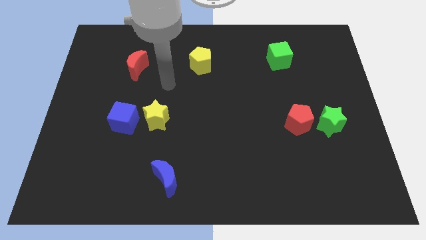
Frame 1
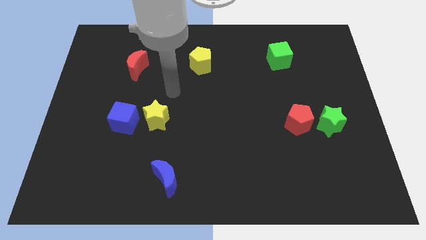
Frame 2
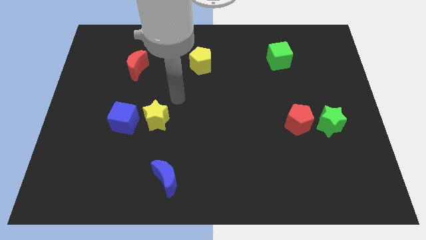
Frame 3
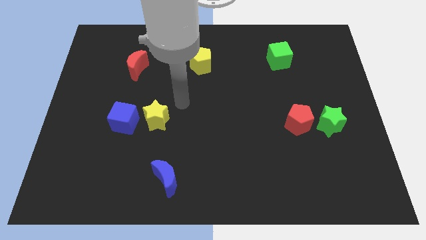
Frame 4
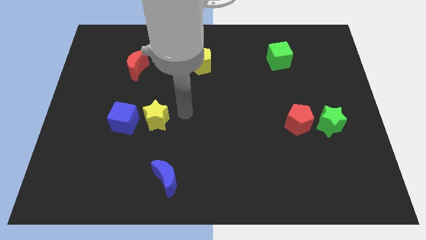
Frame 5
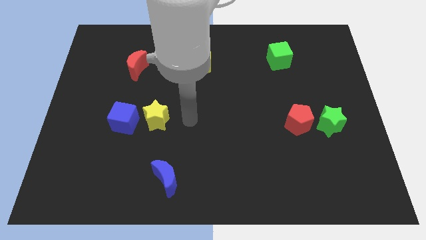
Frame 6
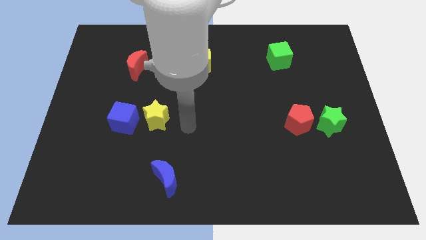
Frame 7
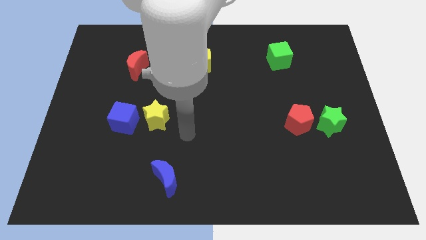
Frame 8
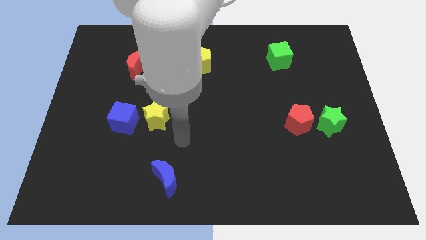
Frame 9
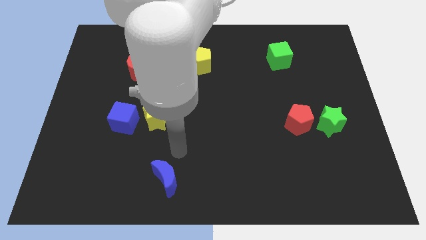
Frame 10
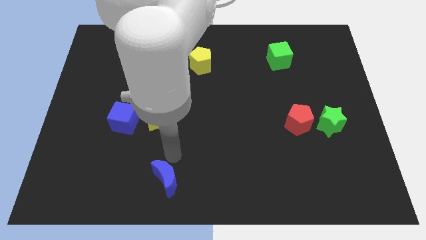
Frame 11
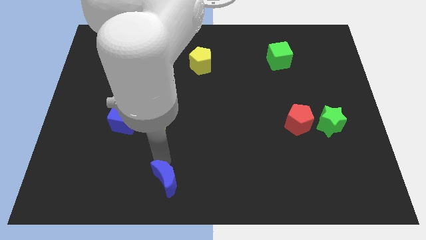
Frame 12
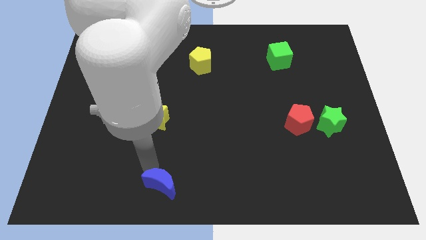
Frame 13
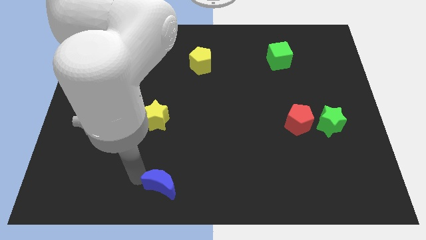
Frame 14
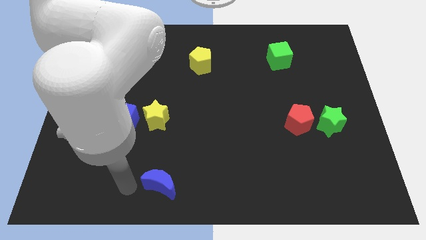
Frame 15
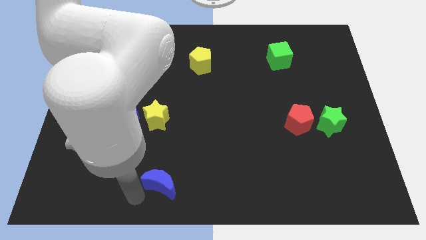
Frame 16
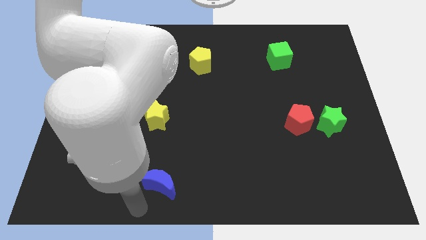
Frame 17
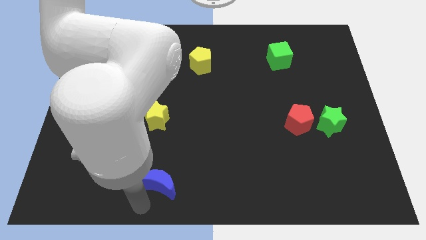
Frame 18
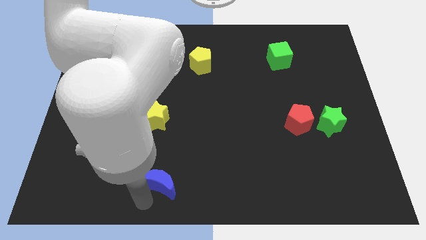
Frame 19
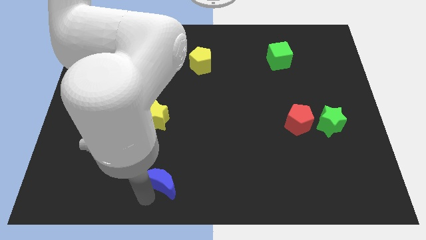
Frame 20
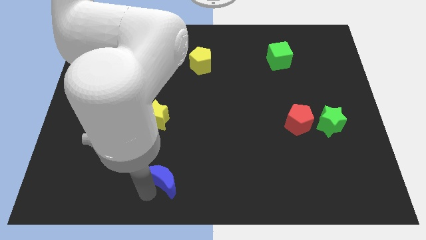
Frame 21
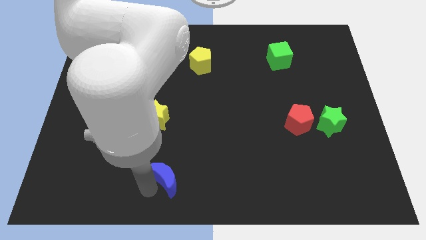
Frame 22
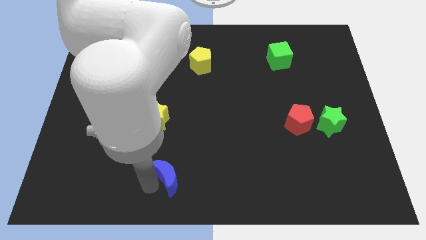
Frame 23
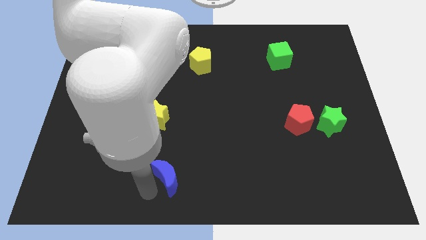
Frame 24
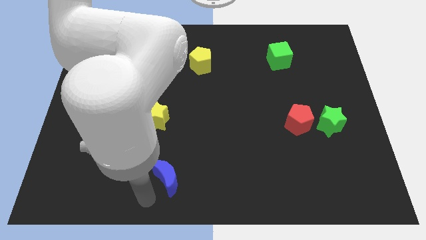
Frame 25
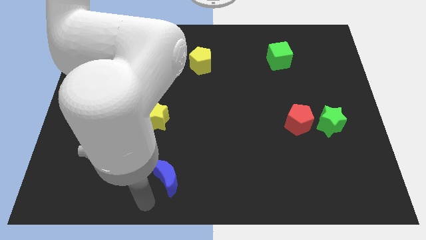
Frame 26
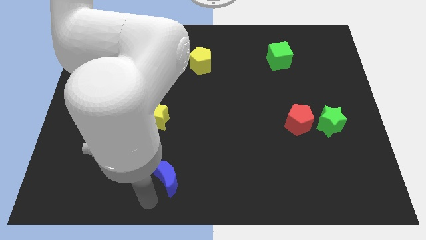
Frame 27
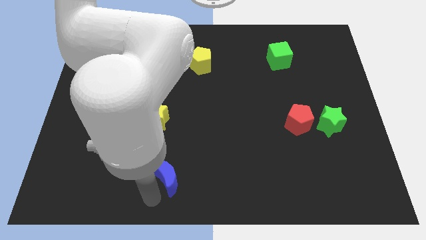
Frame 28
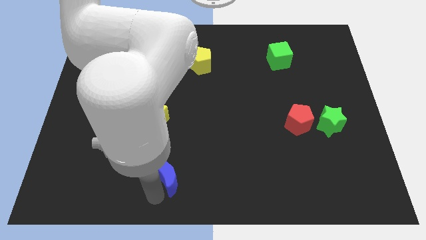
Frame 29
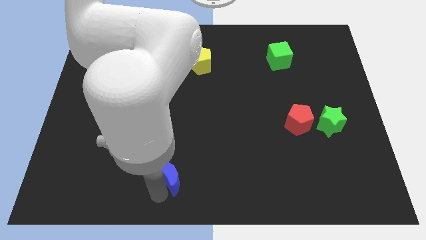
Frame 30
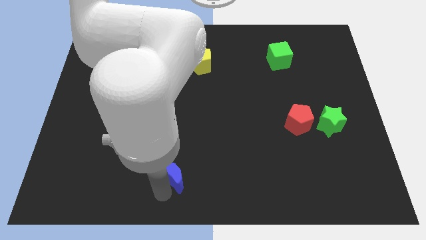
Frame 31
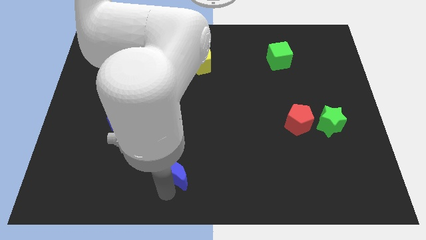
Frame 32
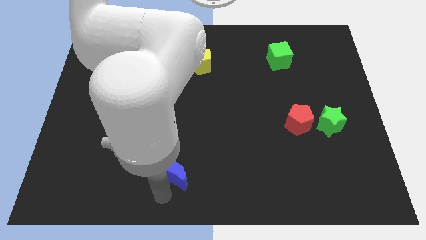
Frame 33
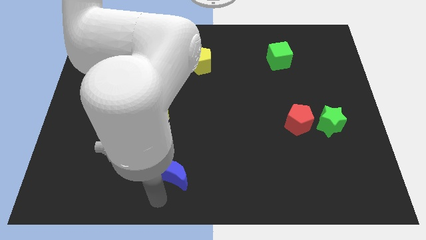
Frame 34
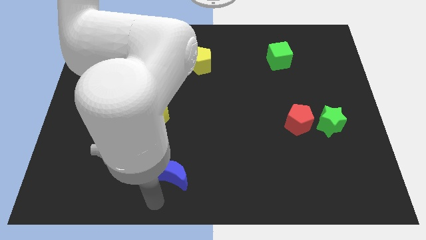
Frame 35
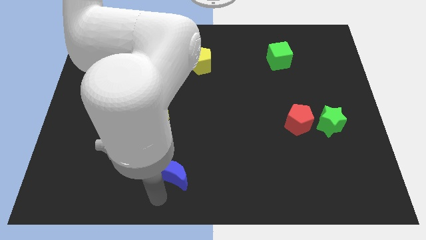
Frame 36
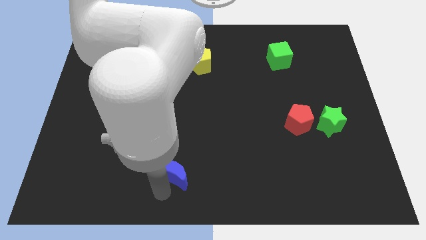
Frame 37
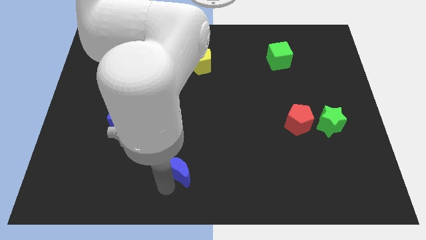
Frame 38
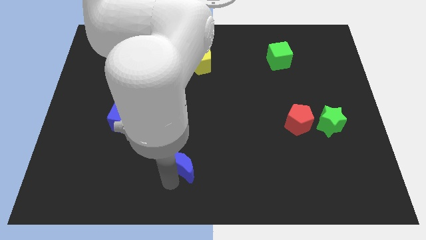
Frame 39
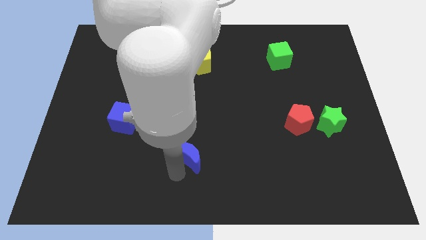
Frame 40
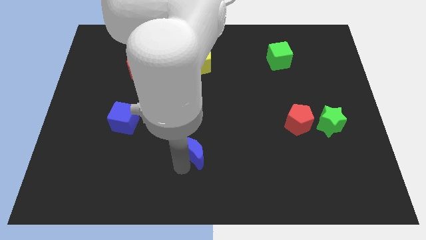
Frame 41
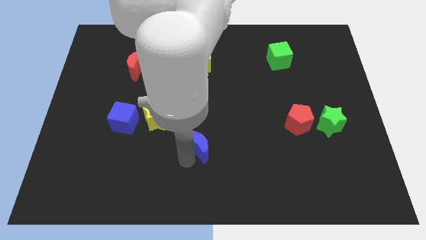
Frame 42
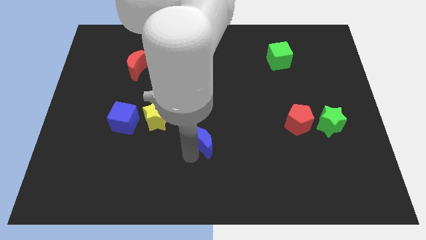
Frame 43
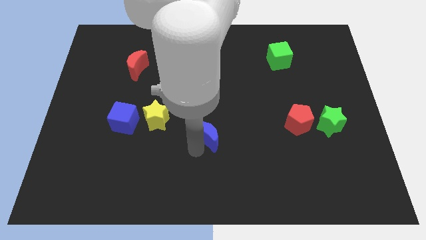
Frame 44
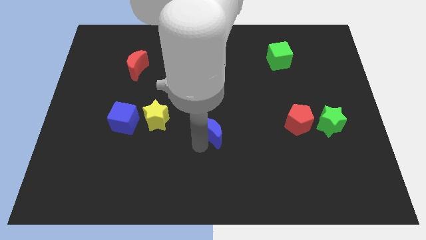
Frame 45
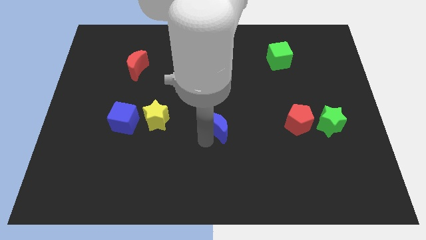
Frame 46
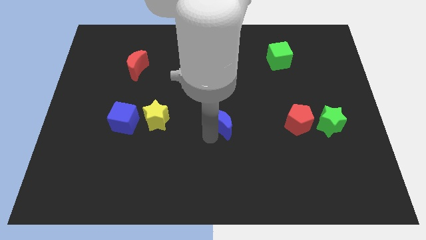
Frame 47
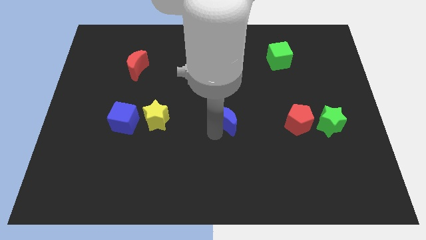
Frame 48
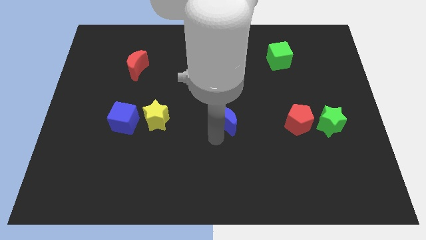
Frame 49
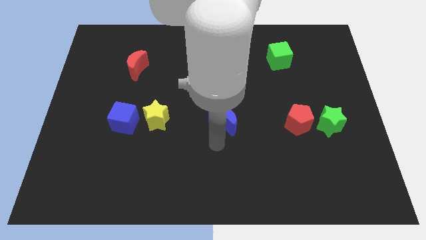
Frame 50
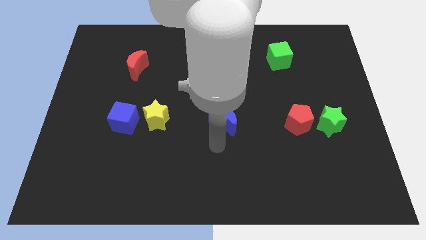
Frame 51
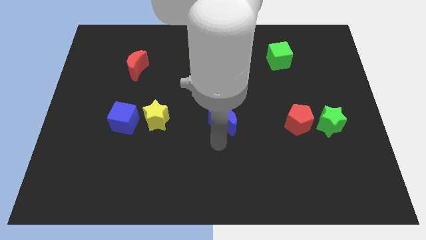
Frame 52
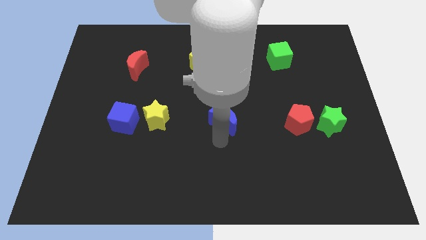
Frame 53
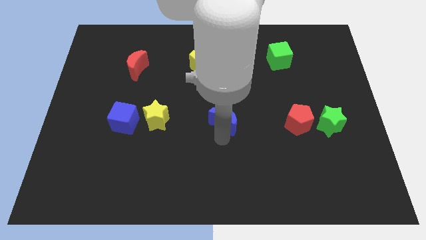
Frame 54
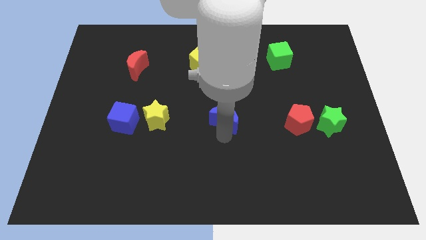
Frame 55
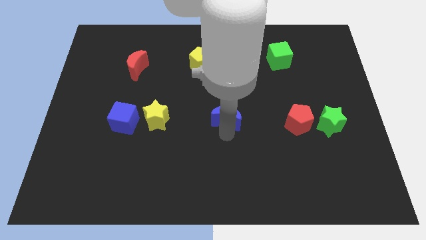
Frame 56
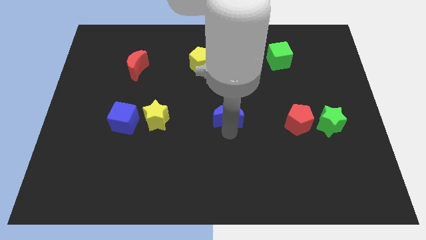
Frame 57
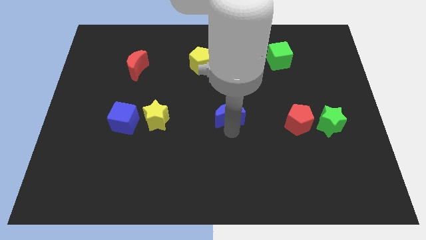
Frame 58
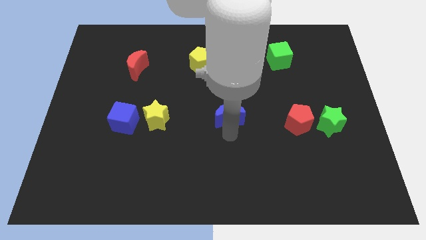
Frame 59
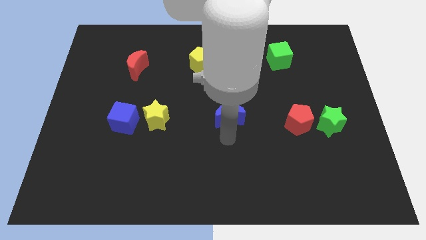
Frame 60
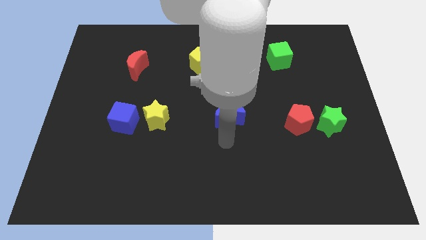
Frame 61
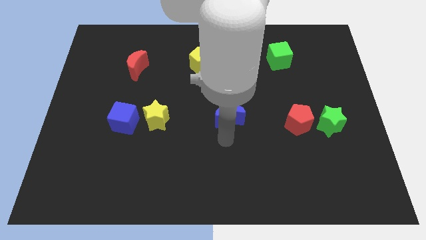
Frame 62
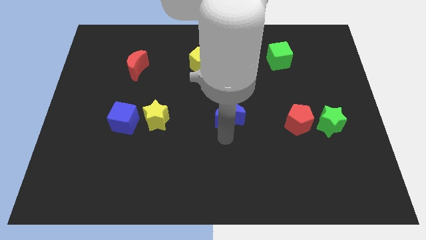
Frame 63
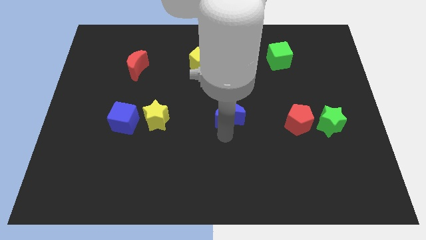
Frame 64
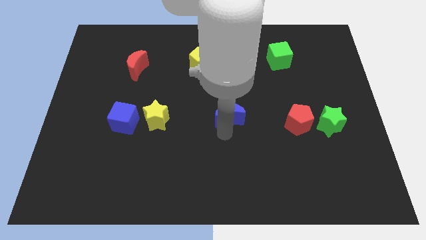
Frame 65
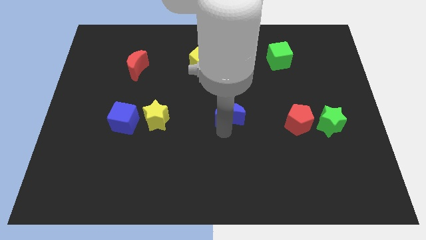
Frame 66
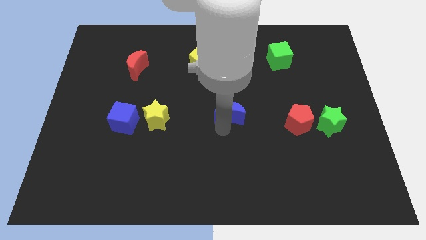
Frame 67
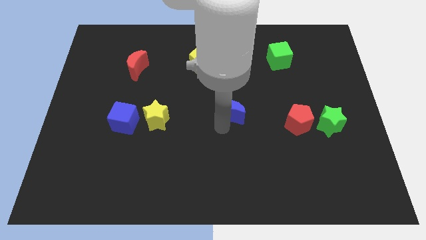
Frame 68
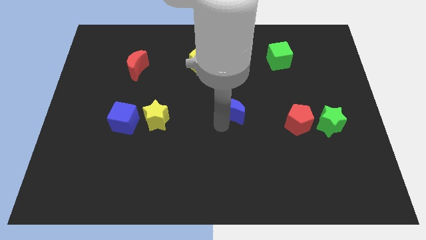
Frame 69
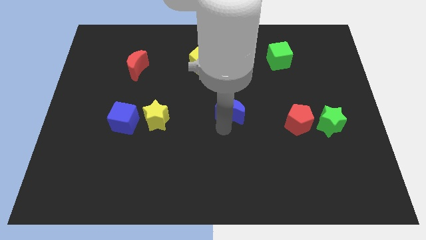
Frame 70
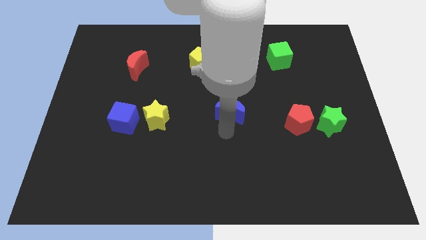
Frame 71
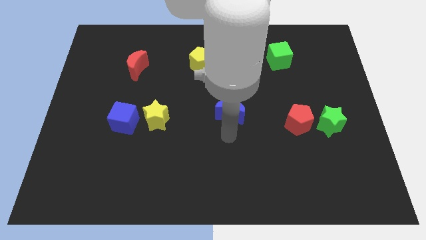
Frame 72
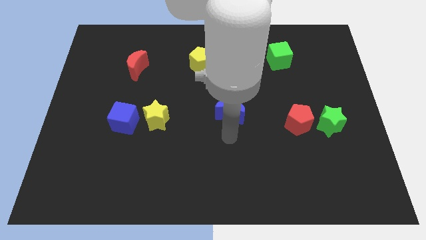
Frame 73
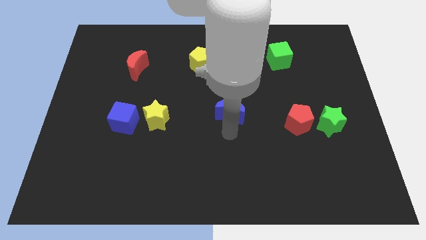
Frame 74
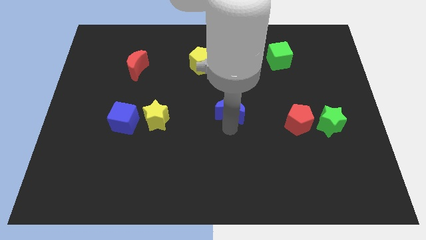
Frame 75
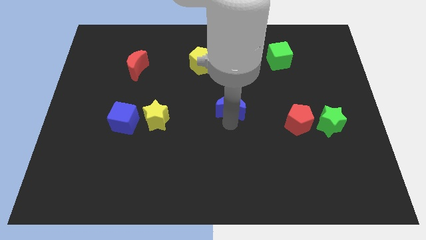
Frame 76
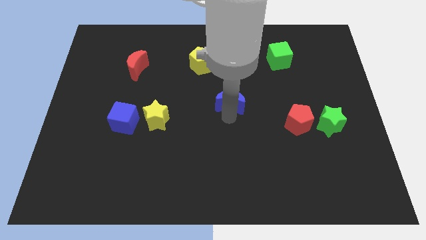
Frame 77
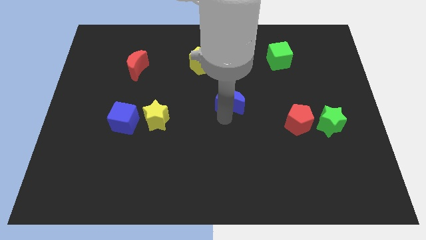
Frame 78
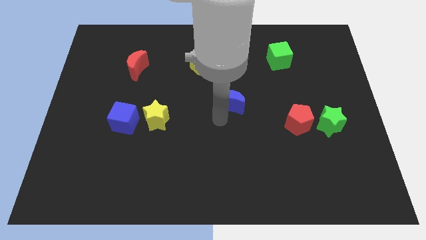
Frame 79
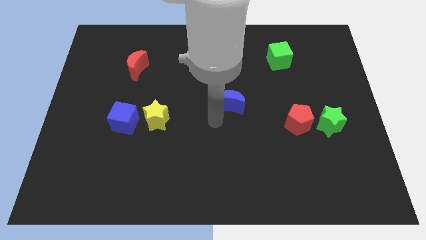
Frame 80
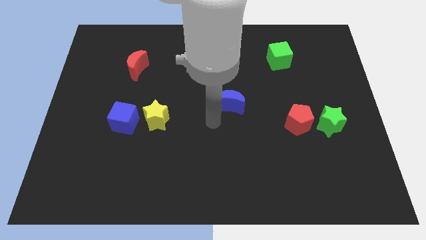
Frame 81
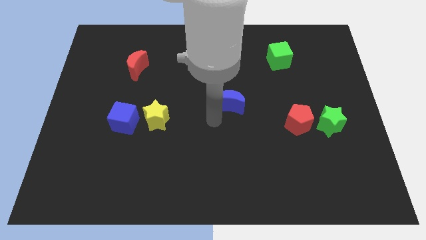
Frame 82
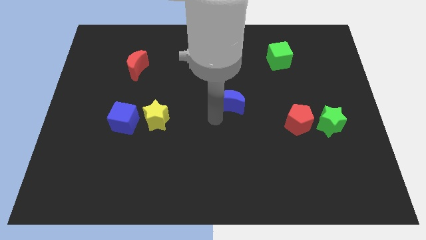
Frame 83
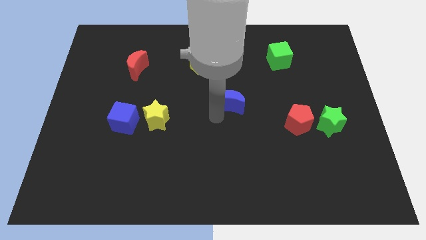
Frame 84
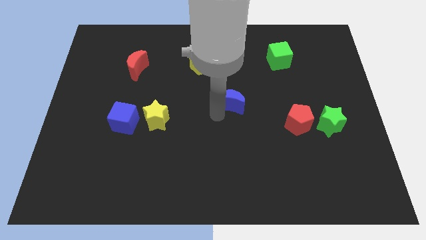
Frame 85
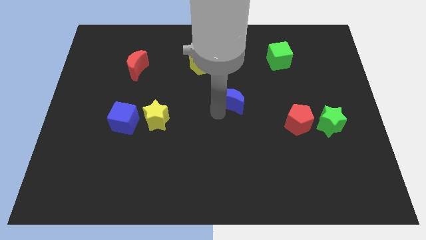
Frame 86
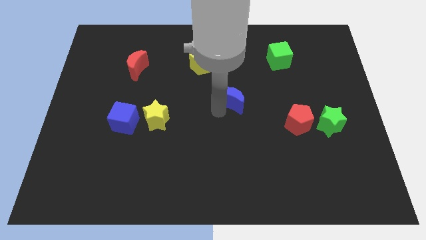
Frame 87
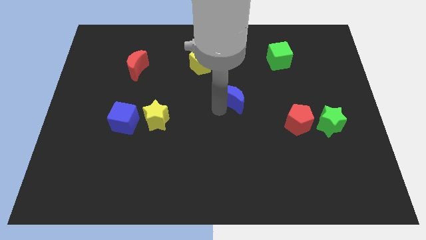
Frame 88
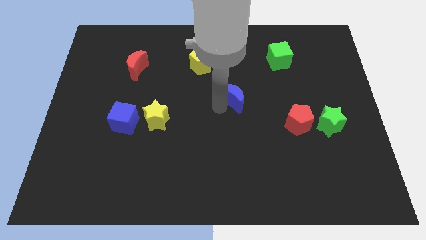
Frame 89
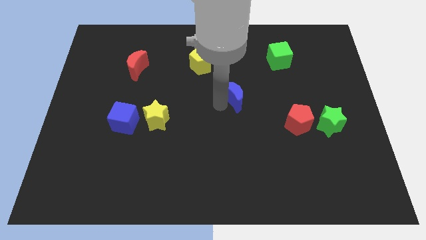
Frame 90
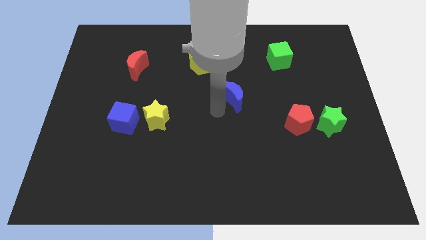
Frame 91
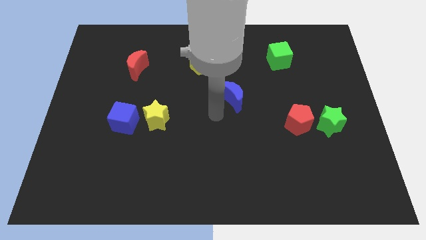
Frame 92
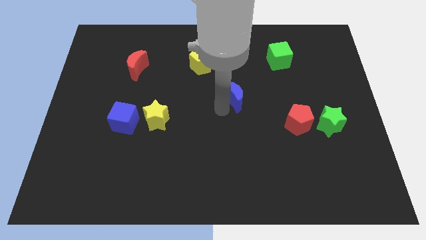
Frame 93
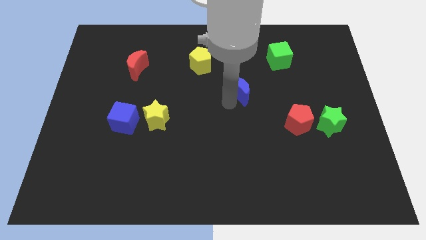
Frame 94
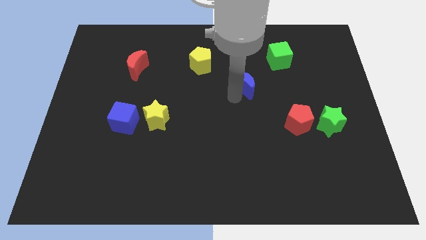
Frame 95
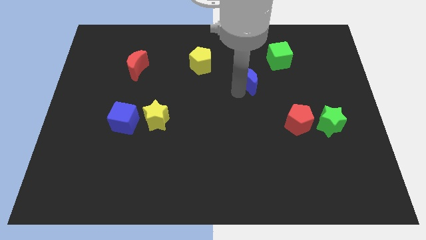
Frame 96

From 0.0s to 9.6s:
move the blue moon to the bottom left of the green cube
